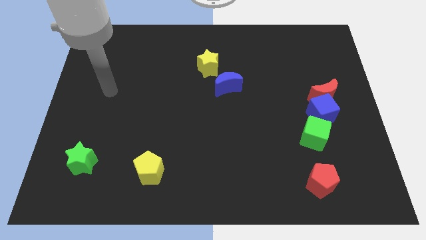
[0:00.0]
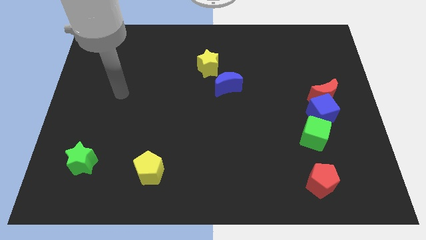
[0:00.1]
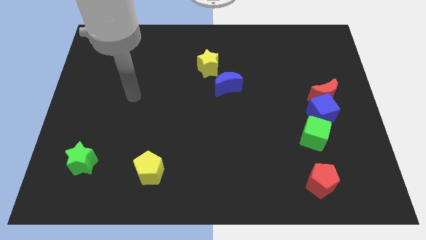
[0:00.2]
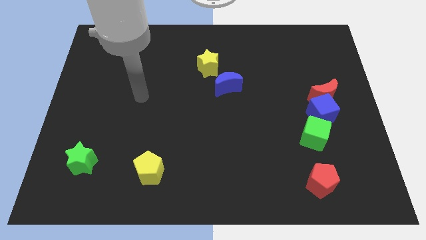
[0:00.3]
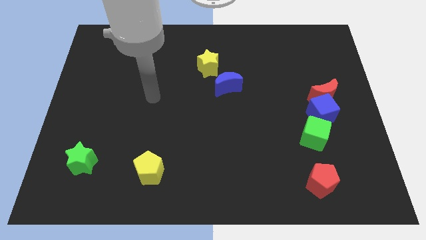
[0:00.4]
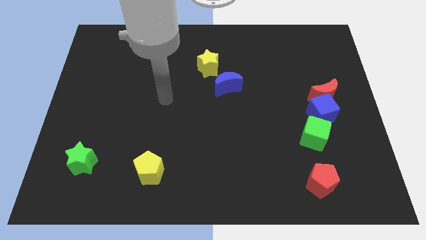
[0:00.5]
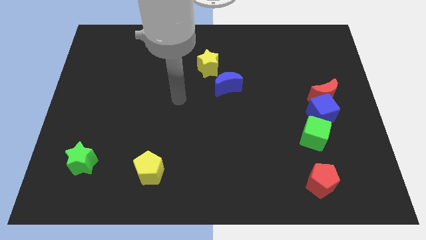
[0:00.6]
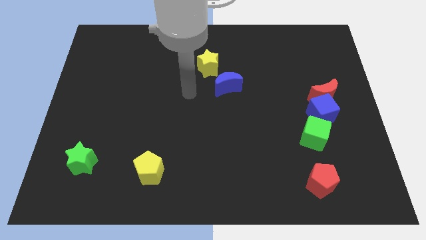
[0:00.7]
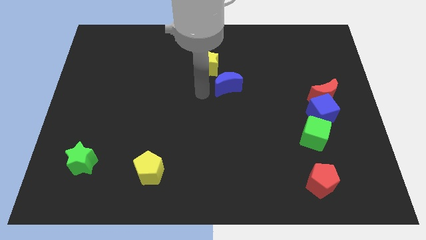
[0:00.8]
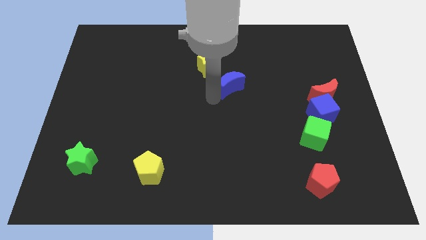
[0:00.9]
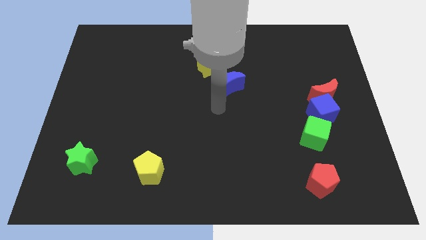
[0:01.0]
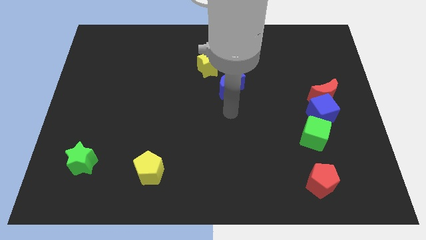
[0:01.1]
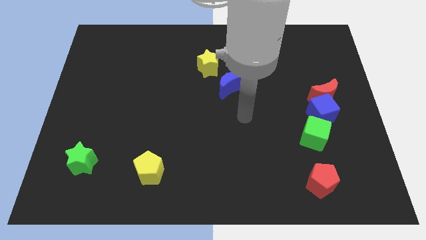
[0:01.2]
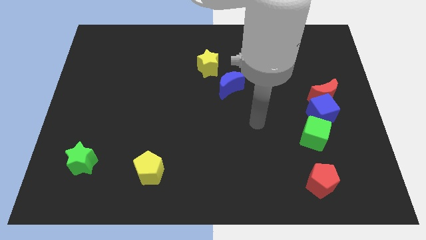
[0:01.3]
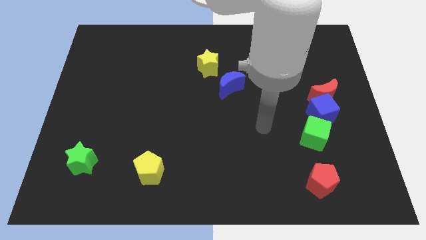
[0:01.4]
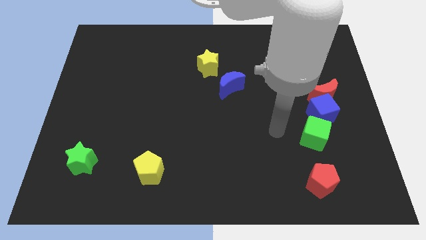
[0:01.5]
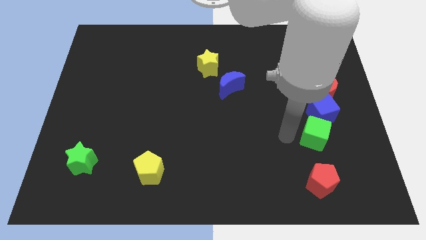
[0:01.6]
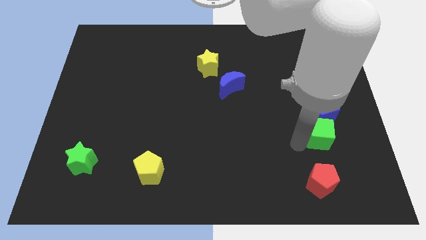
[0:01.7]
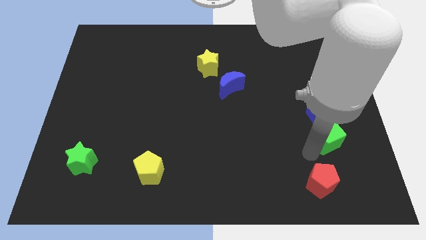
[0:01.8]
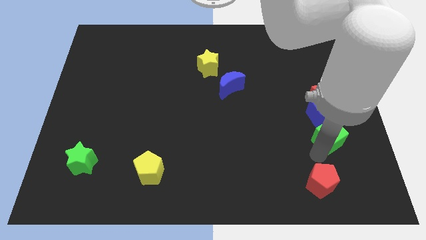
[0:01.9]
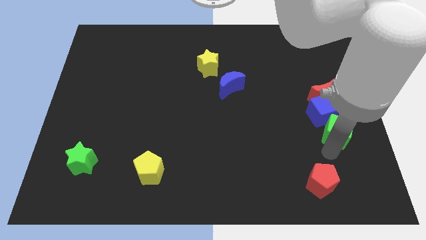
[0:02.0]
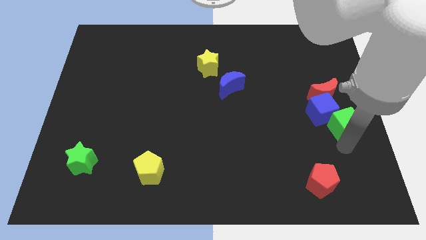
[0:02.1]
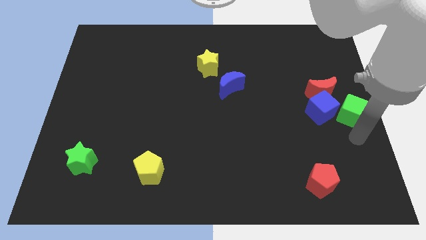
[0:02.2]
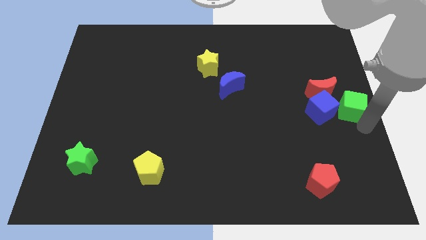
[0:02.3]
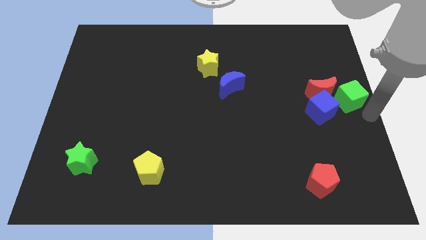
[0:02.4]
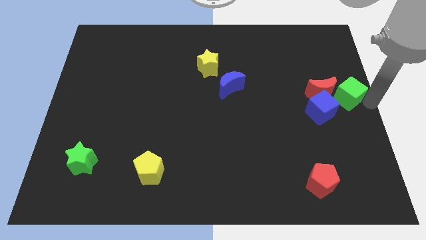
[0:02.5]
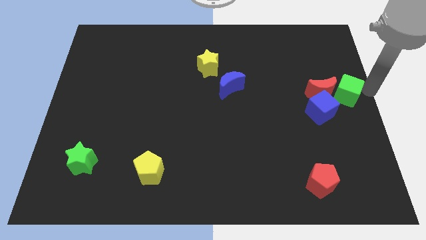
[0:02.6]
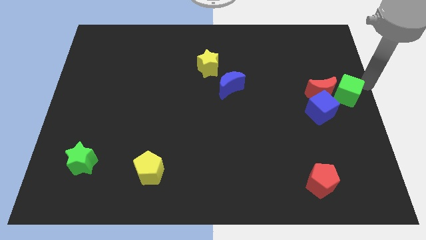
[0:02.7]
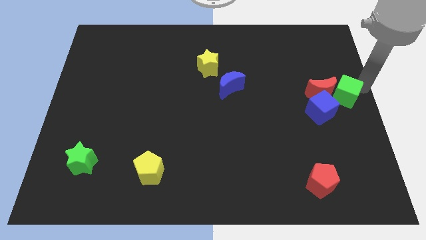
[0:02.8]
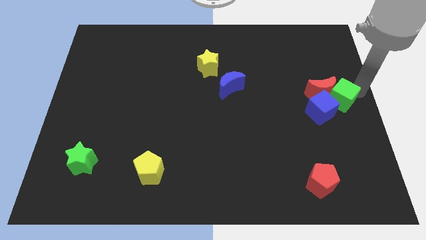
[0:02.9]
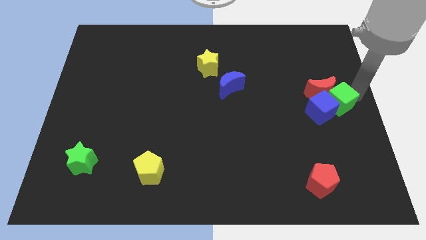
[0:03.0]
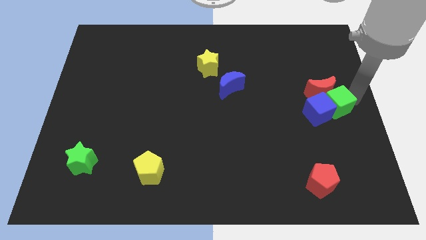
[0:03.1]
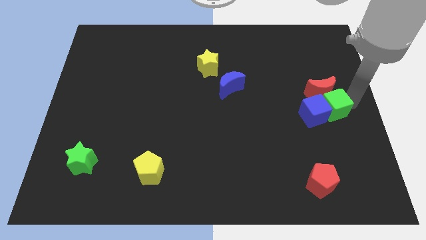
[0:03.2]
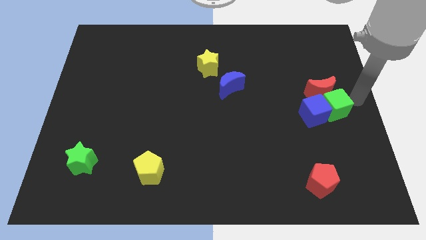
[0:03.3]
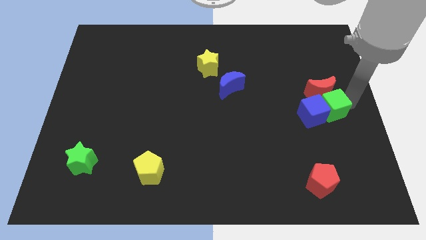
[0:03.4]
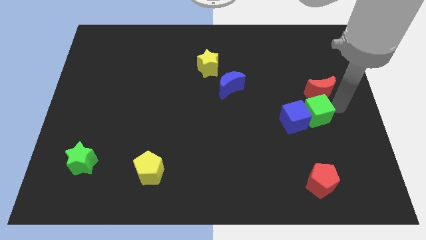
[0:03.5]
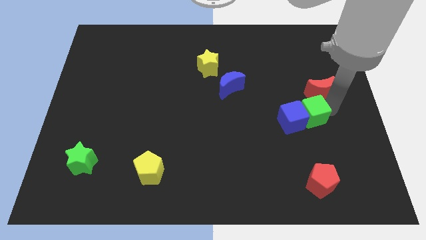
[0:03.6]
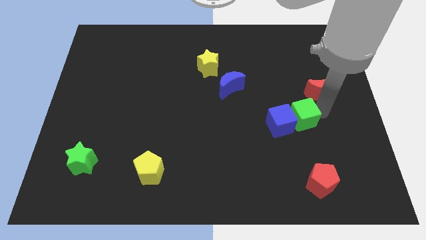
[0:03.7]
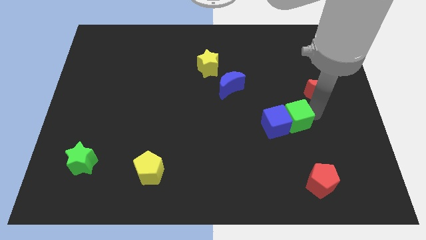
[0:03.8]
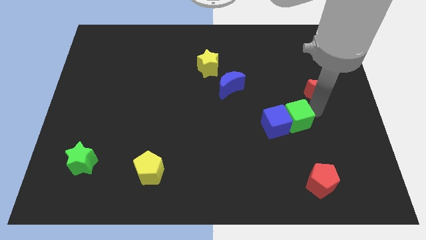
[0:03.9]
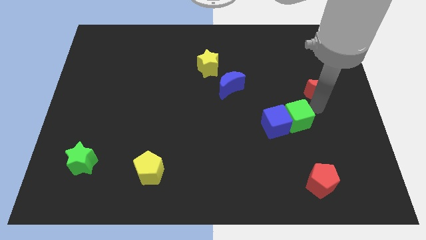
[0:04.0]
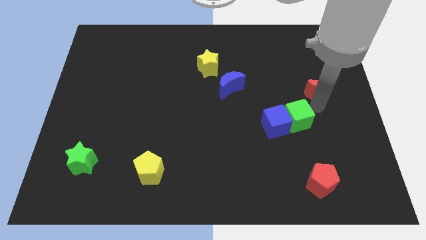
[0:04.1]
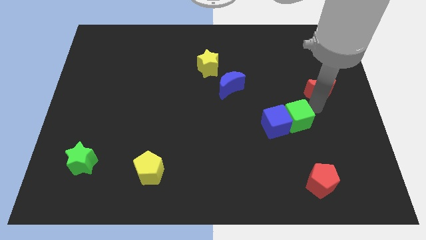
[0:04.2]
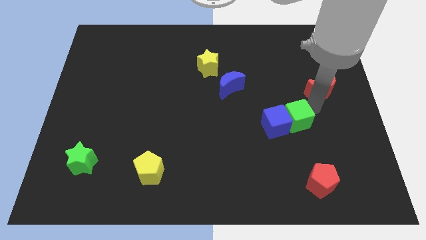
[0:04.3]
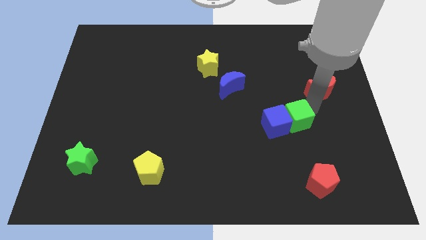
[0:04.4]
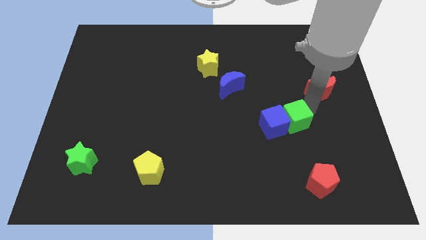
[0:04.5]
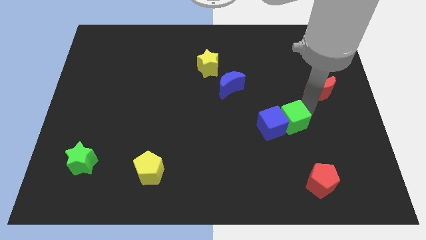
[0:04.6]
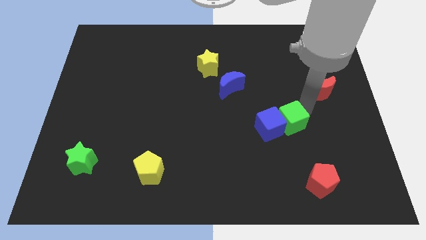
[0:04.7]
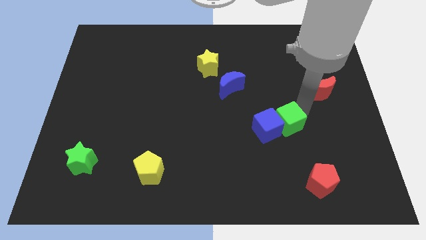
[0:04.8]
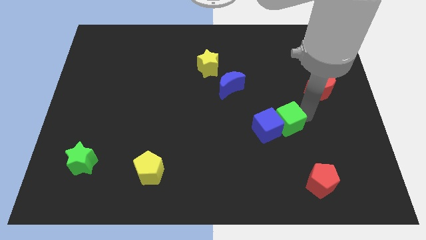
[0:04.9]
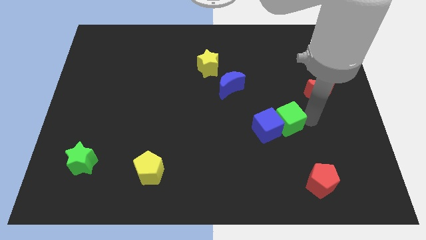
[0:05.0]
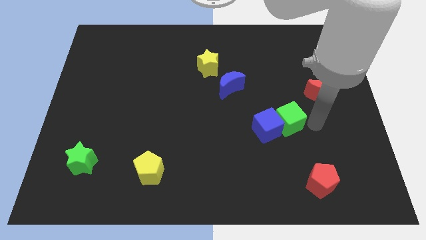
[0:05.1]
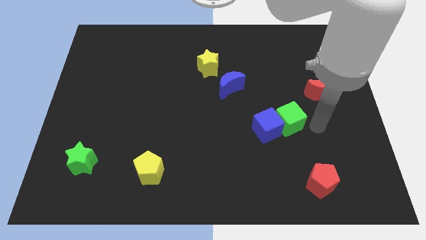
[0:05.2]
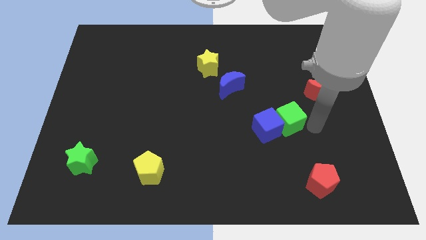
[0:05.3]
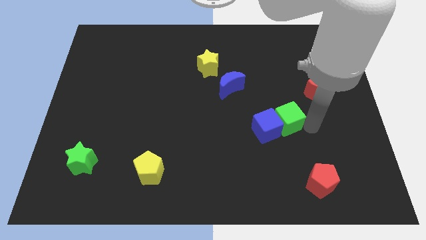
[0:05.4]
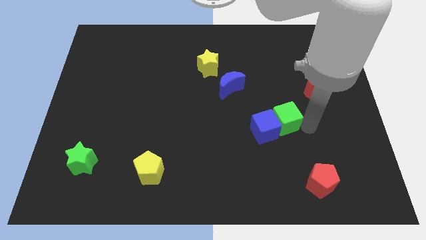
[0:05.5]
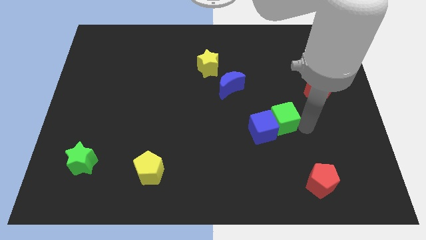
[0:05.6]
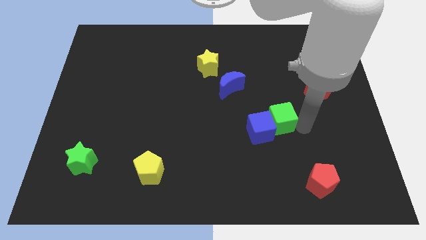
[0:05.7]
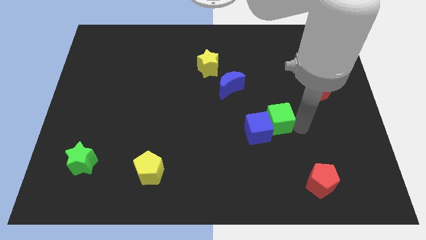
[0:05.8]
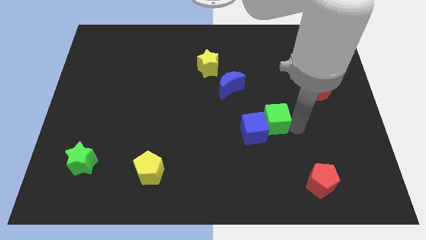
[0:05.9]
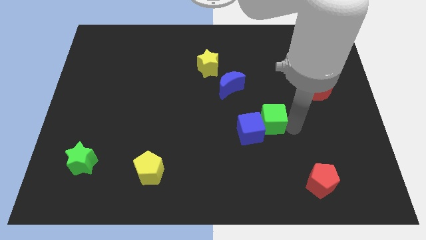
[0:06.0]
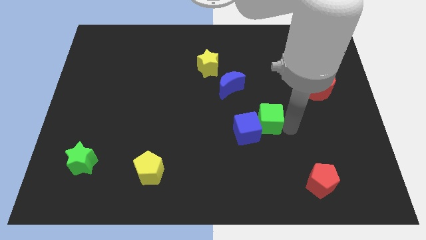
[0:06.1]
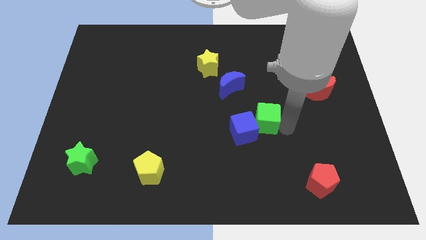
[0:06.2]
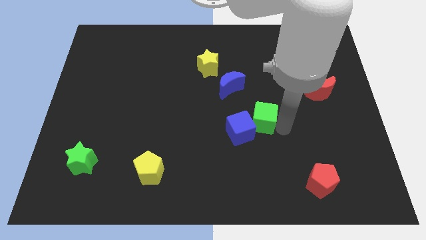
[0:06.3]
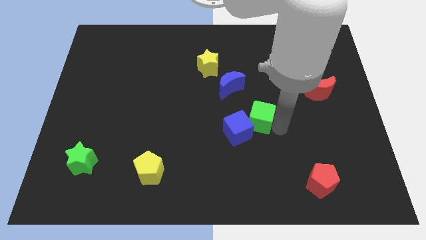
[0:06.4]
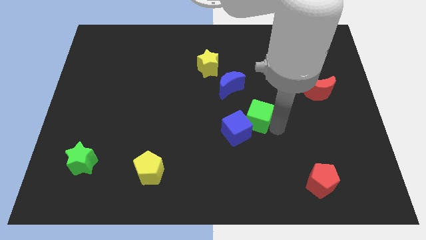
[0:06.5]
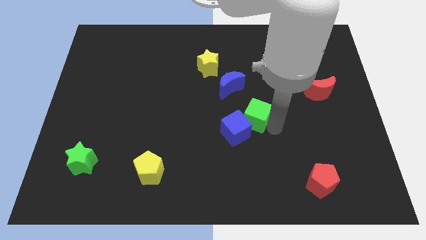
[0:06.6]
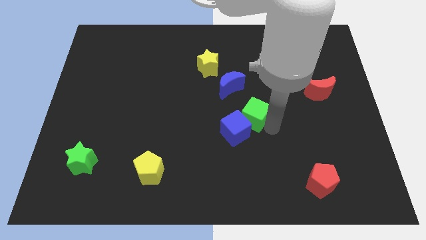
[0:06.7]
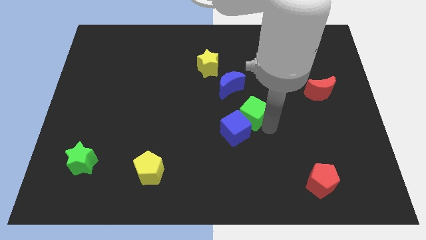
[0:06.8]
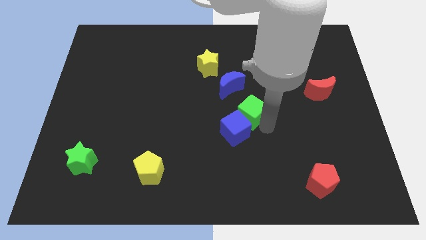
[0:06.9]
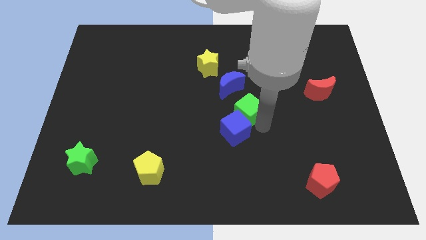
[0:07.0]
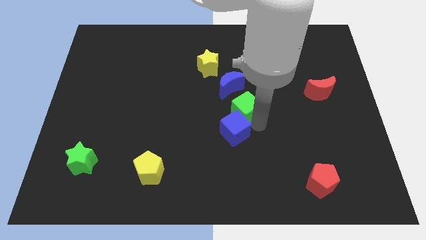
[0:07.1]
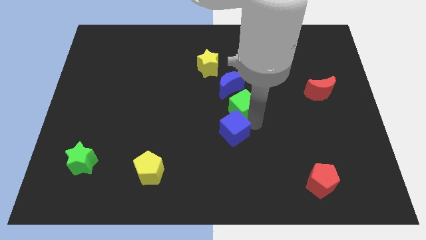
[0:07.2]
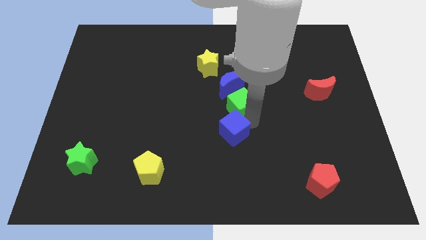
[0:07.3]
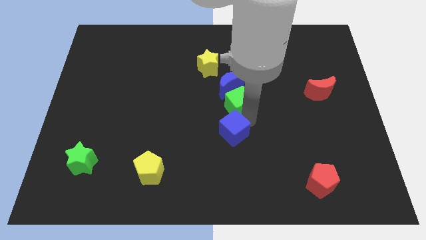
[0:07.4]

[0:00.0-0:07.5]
put the green cube close to the blue moon
